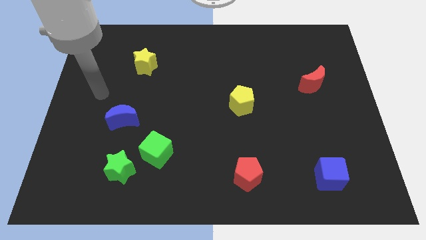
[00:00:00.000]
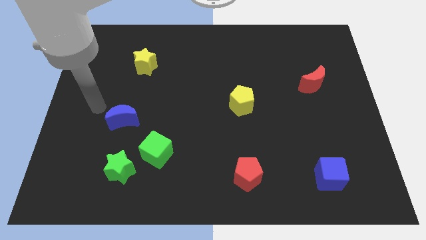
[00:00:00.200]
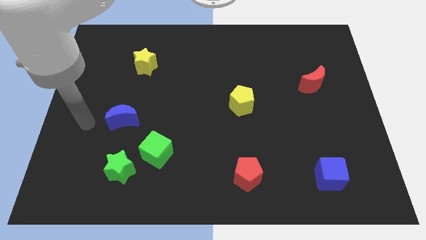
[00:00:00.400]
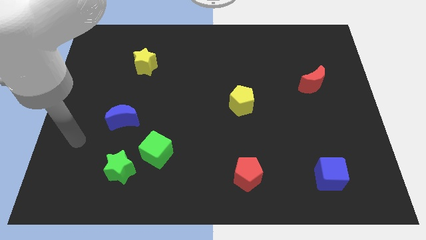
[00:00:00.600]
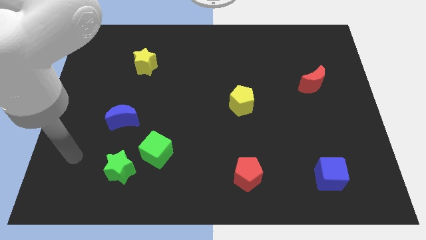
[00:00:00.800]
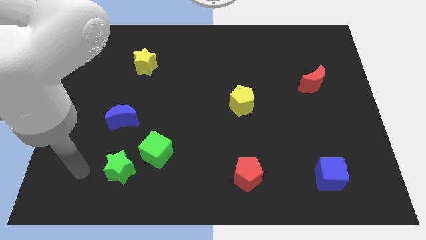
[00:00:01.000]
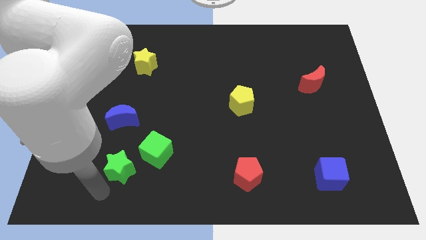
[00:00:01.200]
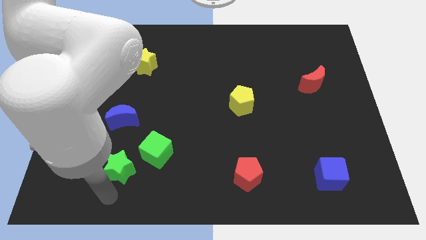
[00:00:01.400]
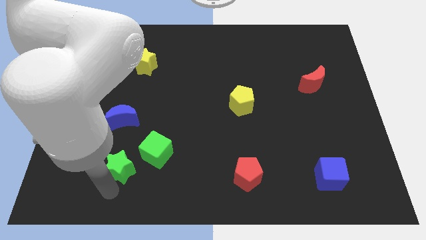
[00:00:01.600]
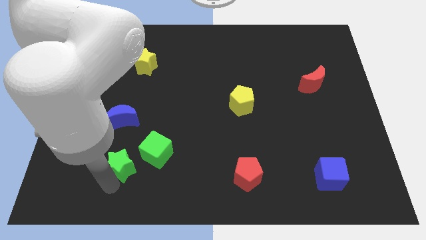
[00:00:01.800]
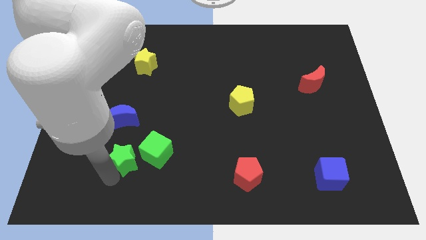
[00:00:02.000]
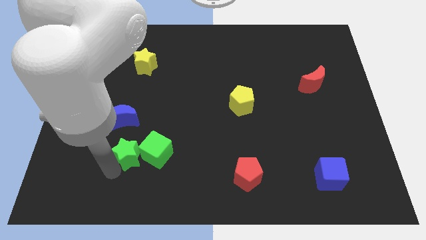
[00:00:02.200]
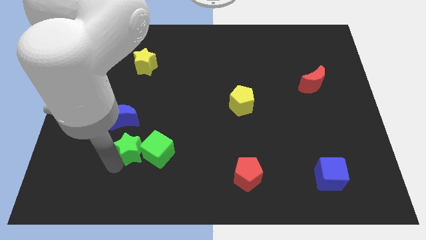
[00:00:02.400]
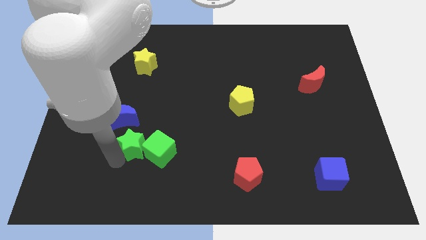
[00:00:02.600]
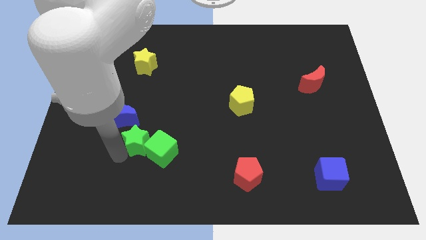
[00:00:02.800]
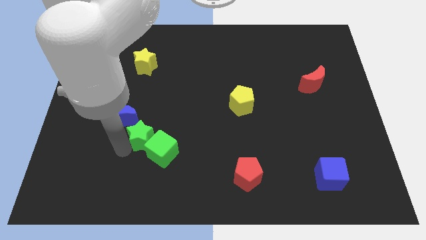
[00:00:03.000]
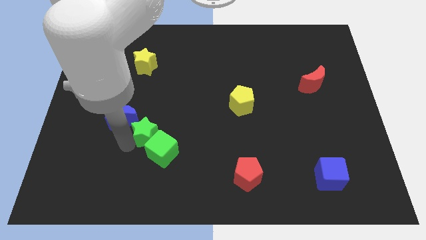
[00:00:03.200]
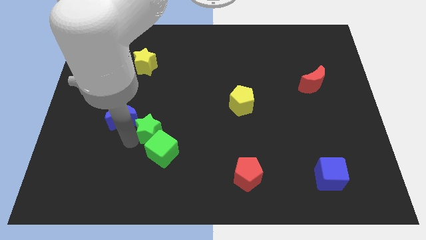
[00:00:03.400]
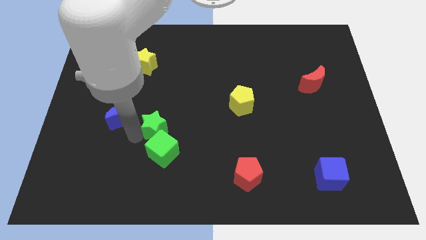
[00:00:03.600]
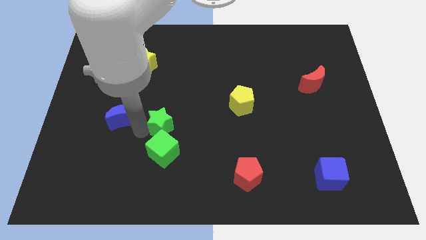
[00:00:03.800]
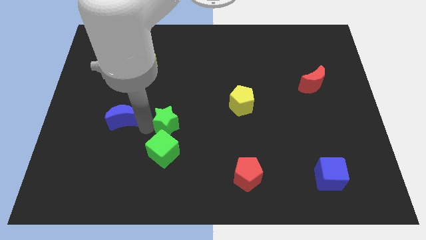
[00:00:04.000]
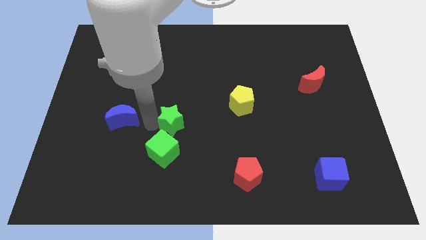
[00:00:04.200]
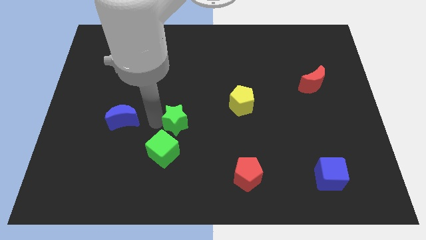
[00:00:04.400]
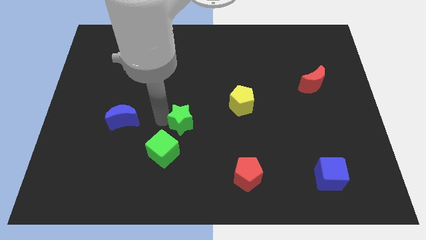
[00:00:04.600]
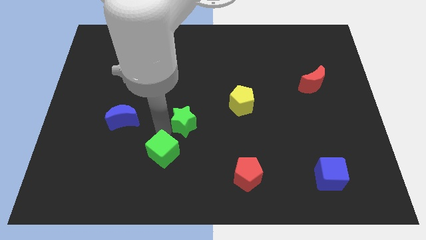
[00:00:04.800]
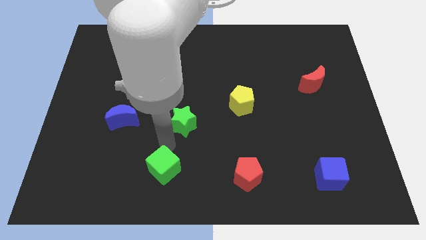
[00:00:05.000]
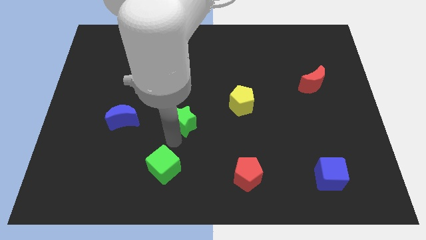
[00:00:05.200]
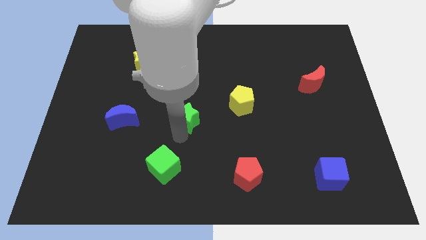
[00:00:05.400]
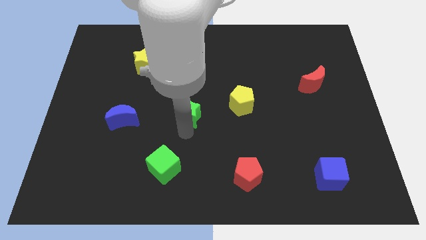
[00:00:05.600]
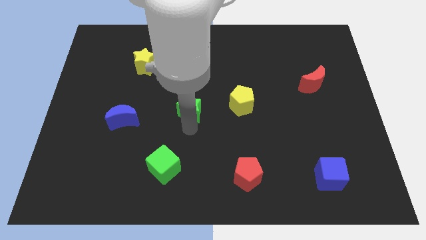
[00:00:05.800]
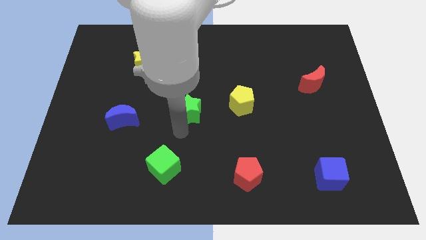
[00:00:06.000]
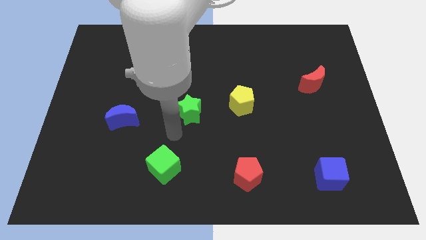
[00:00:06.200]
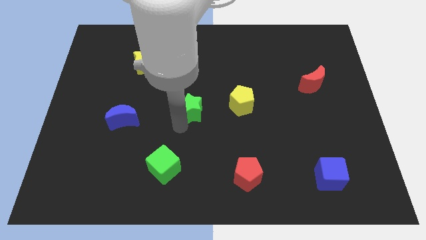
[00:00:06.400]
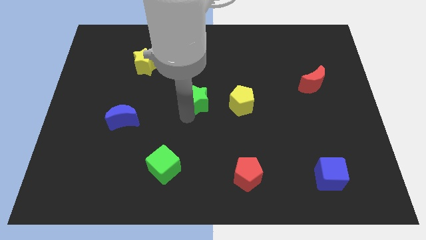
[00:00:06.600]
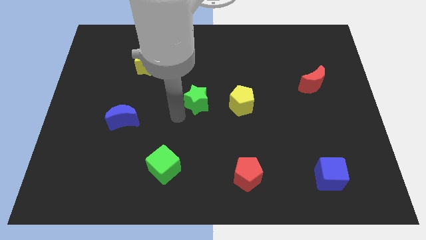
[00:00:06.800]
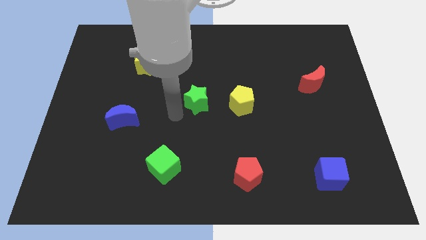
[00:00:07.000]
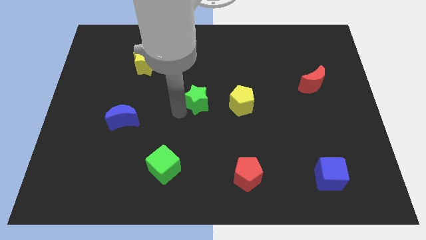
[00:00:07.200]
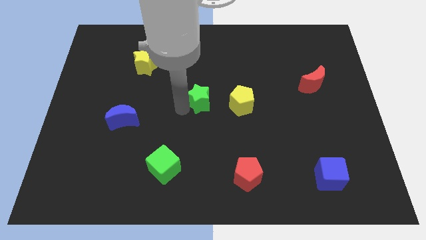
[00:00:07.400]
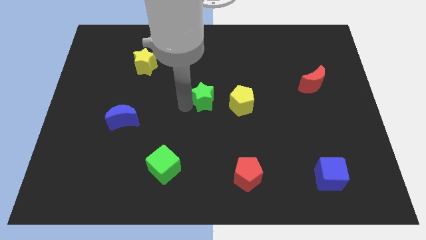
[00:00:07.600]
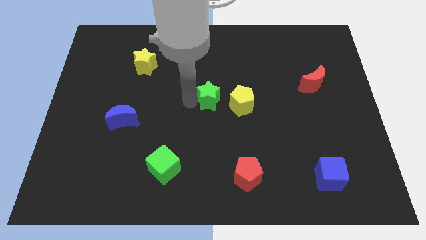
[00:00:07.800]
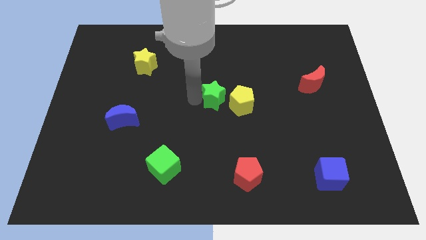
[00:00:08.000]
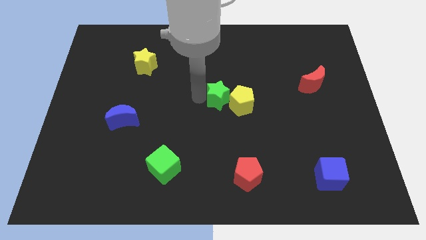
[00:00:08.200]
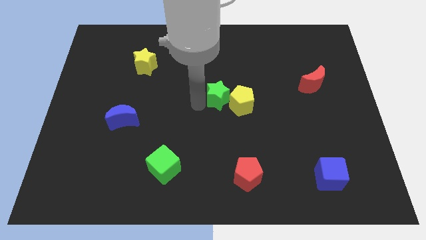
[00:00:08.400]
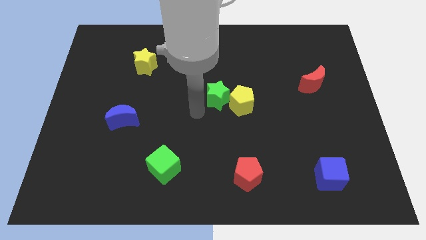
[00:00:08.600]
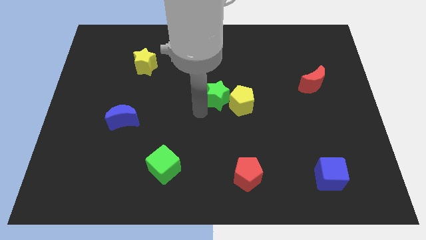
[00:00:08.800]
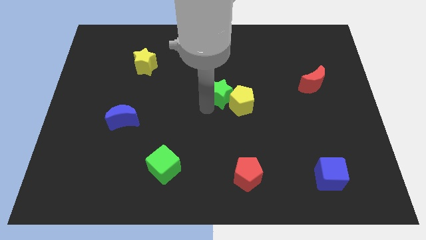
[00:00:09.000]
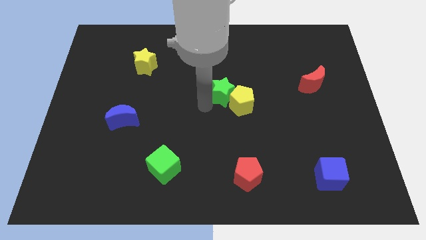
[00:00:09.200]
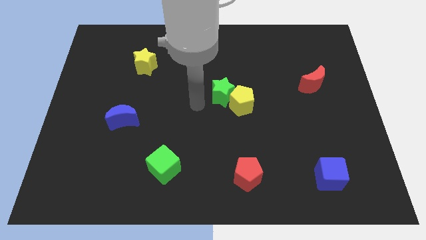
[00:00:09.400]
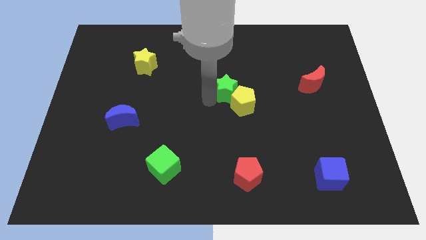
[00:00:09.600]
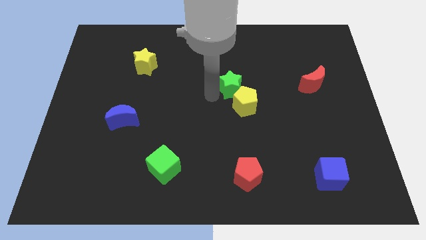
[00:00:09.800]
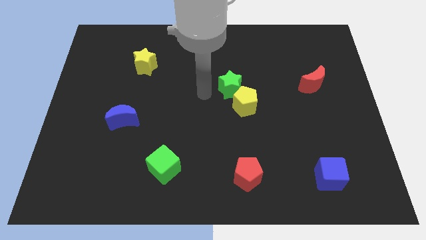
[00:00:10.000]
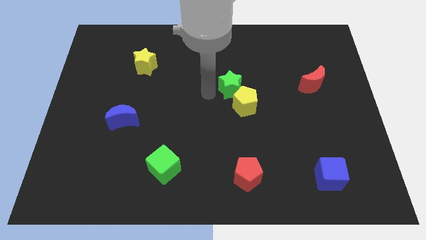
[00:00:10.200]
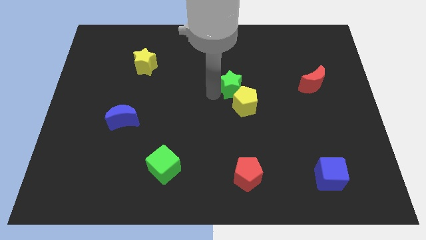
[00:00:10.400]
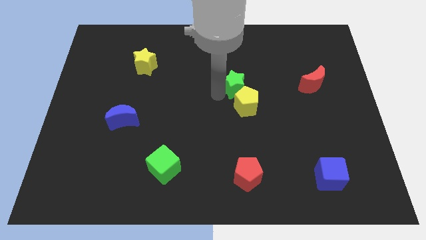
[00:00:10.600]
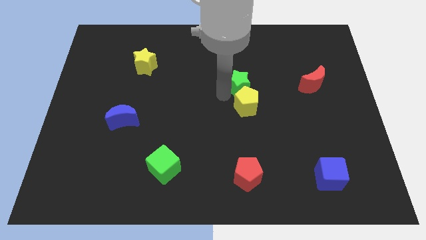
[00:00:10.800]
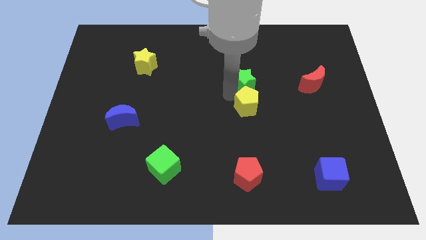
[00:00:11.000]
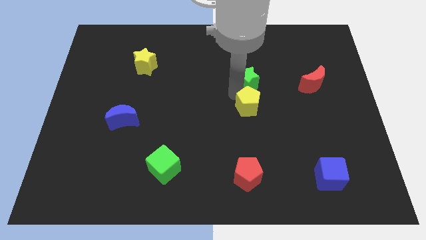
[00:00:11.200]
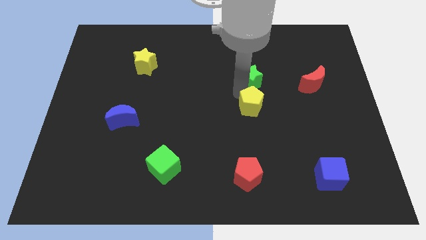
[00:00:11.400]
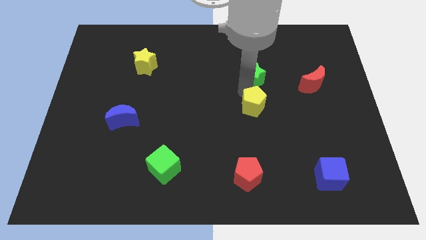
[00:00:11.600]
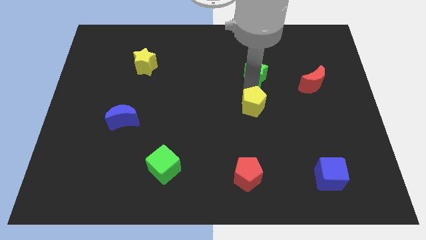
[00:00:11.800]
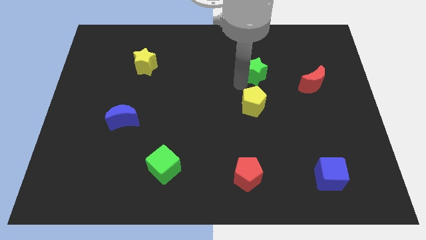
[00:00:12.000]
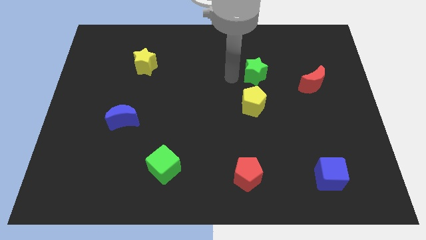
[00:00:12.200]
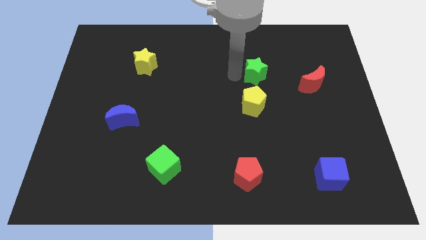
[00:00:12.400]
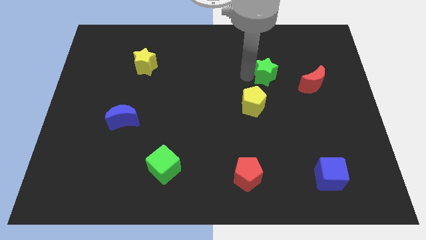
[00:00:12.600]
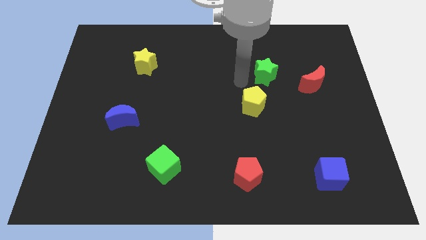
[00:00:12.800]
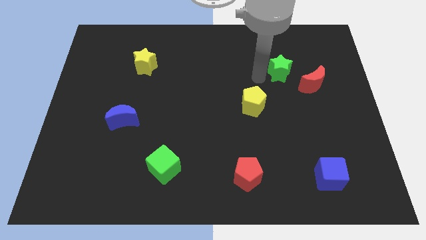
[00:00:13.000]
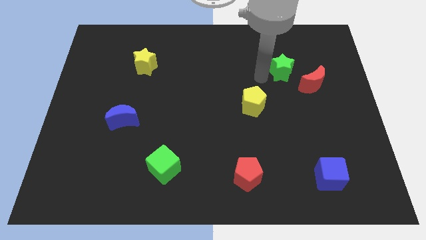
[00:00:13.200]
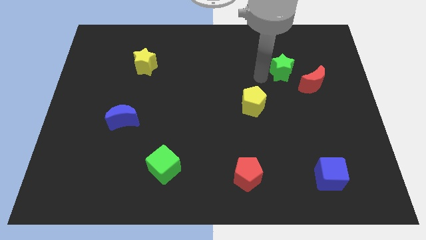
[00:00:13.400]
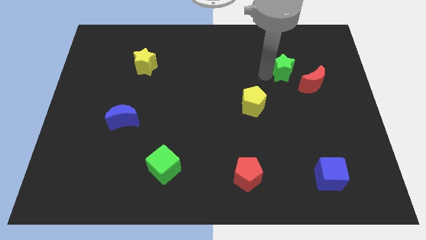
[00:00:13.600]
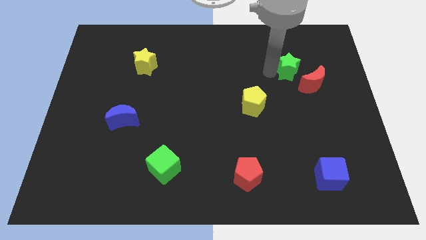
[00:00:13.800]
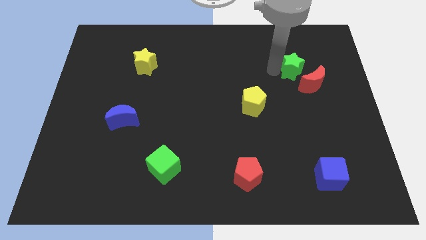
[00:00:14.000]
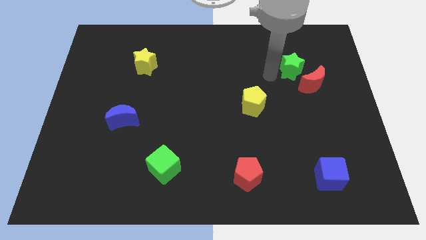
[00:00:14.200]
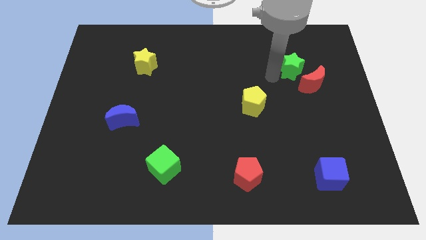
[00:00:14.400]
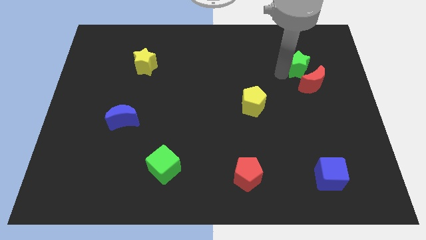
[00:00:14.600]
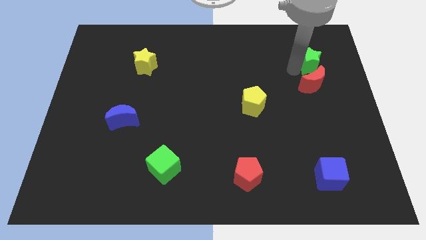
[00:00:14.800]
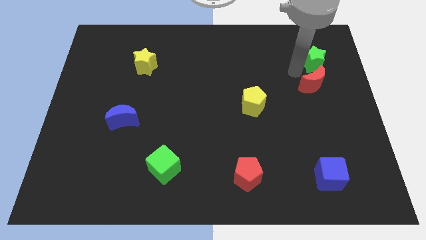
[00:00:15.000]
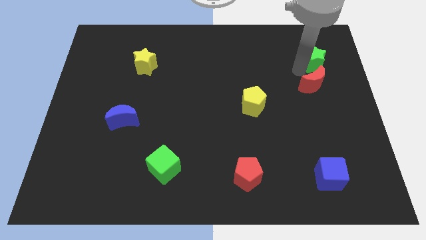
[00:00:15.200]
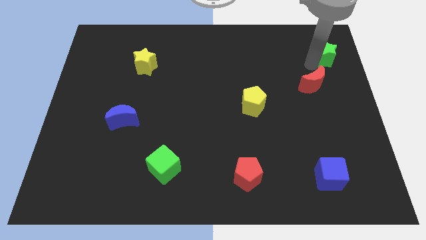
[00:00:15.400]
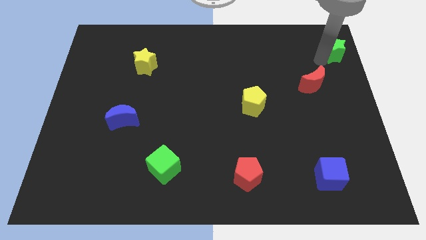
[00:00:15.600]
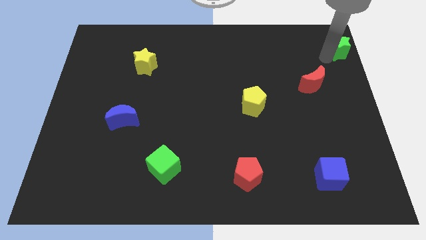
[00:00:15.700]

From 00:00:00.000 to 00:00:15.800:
put the green star to the upper right corner
